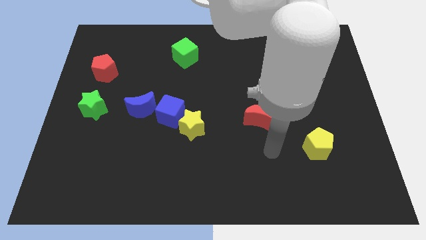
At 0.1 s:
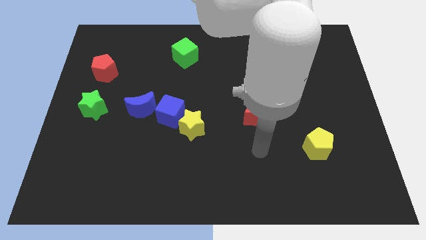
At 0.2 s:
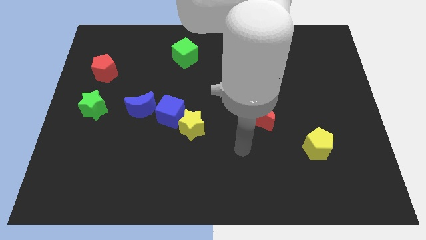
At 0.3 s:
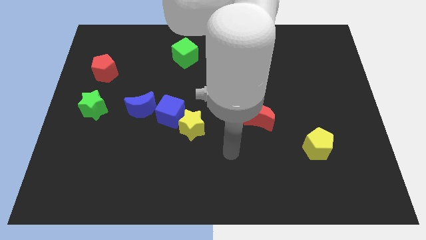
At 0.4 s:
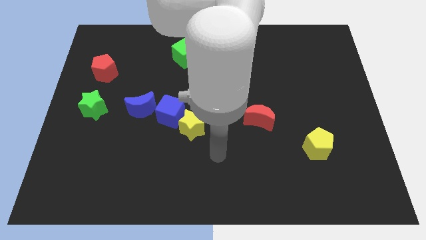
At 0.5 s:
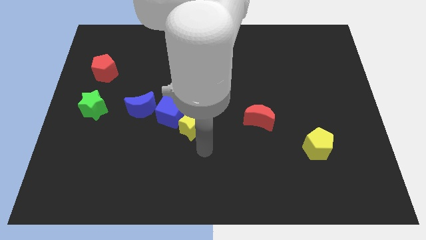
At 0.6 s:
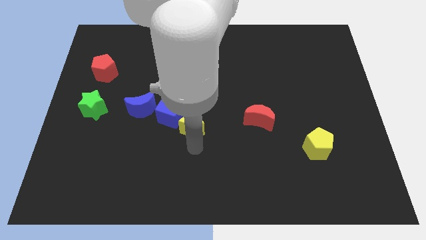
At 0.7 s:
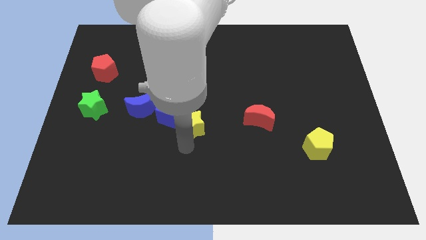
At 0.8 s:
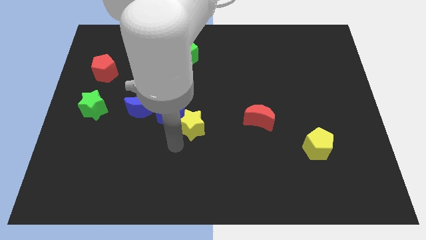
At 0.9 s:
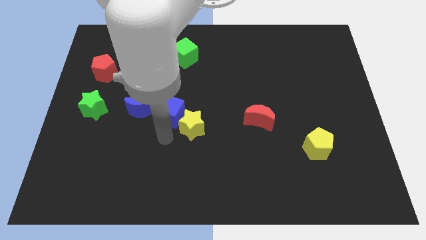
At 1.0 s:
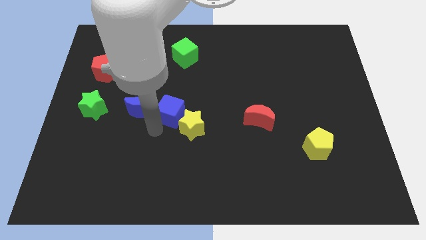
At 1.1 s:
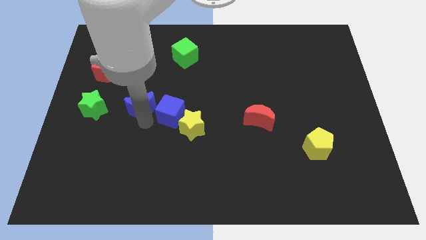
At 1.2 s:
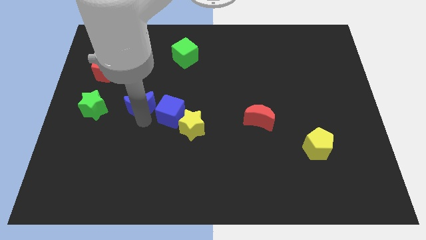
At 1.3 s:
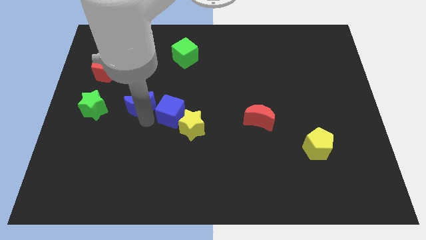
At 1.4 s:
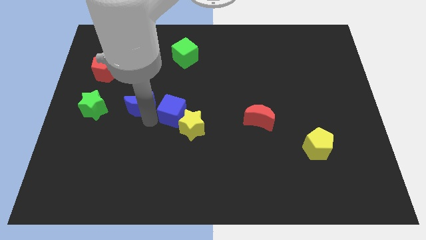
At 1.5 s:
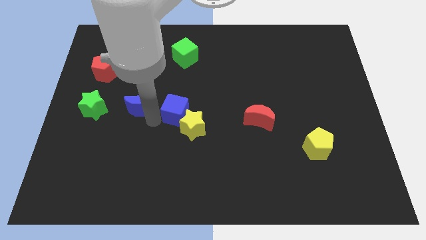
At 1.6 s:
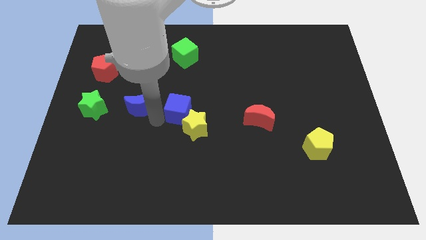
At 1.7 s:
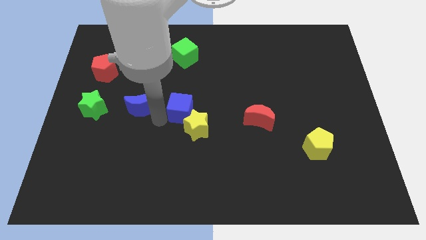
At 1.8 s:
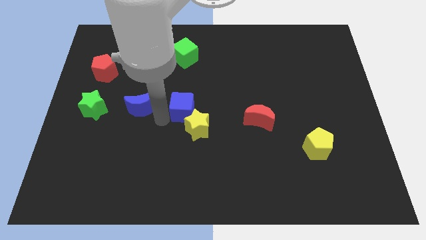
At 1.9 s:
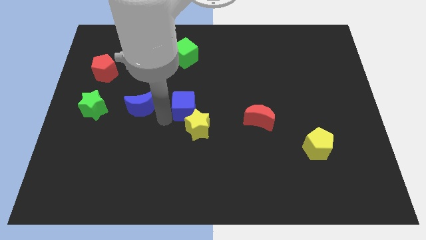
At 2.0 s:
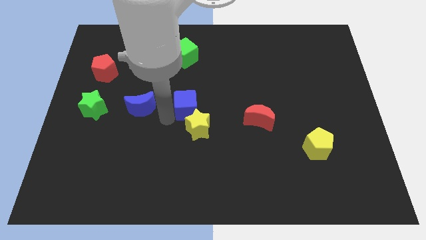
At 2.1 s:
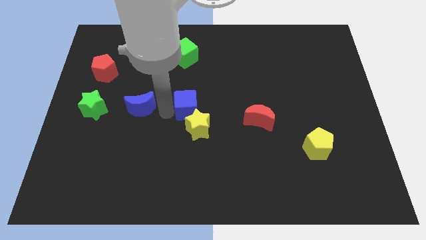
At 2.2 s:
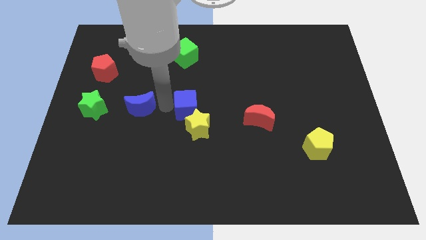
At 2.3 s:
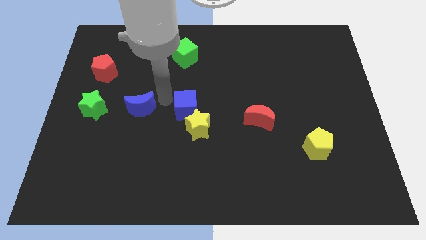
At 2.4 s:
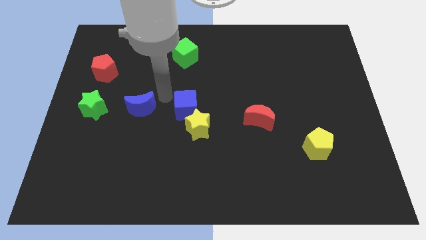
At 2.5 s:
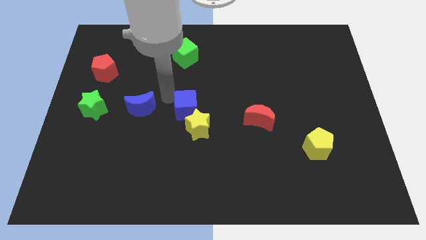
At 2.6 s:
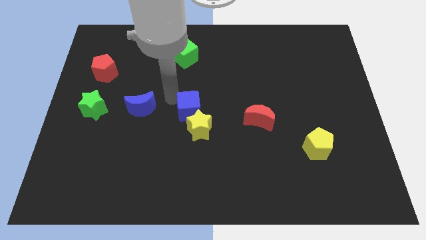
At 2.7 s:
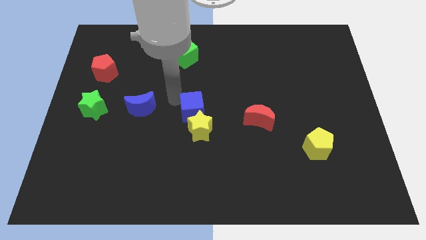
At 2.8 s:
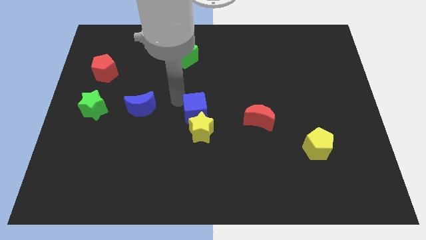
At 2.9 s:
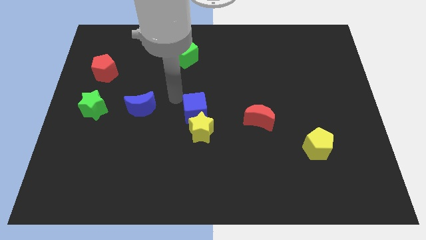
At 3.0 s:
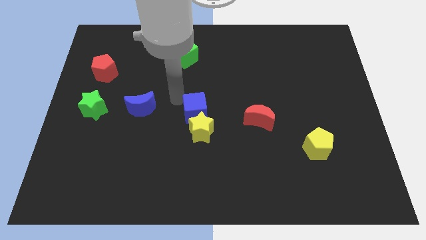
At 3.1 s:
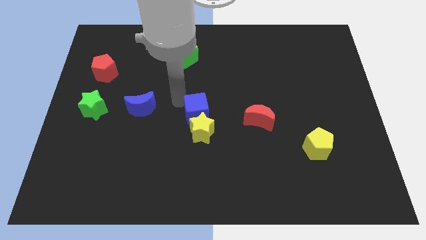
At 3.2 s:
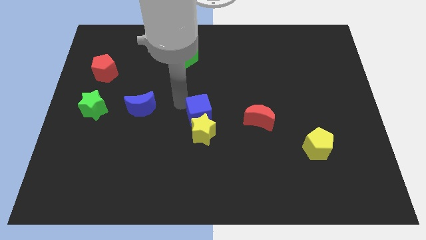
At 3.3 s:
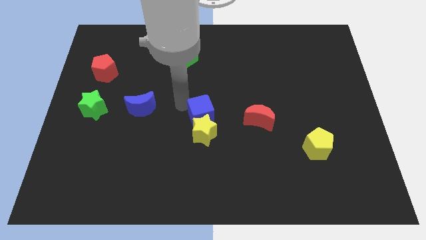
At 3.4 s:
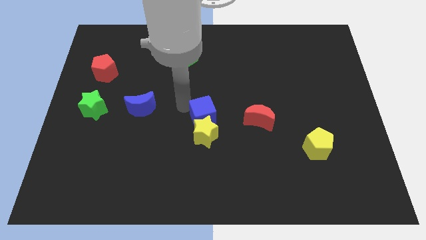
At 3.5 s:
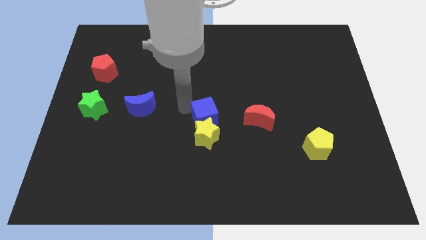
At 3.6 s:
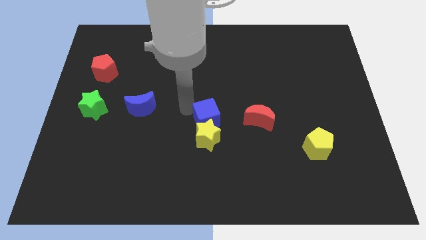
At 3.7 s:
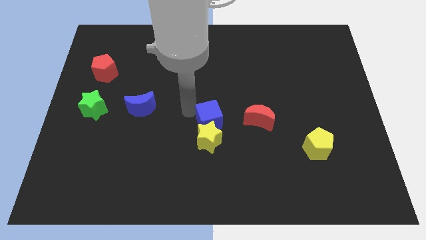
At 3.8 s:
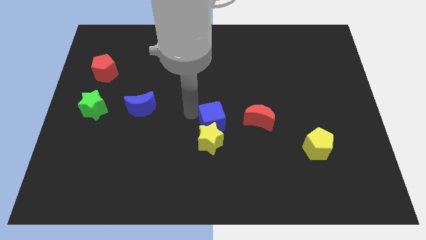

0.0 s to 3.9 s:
slightly slide the blue cube downwards and then to the right

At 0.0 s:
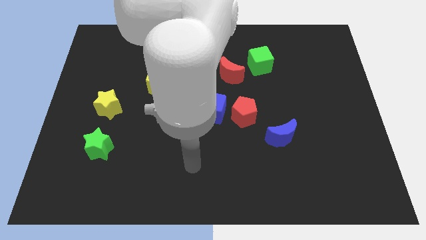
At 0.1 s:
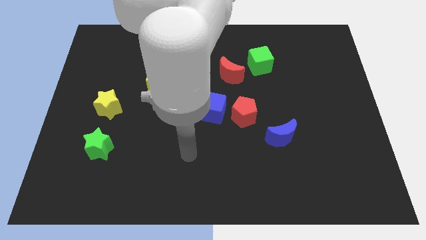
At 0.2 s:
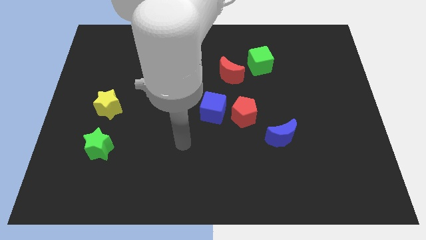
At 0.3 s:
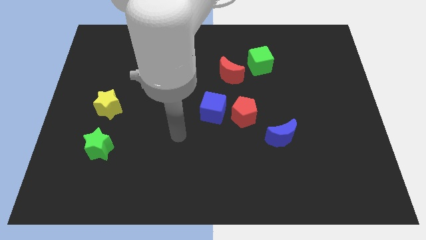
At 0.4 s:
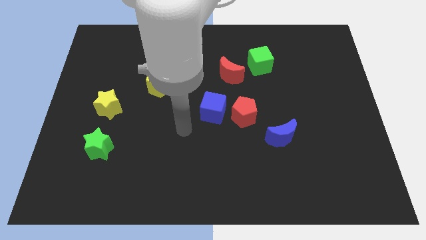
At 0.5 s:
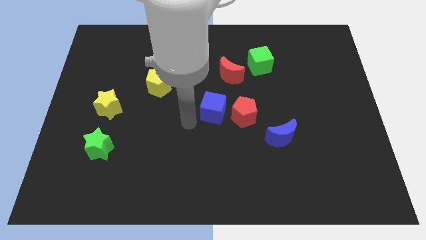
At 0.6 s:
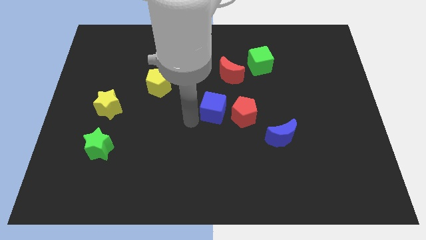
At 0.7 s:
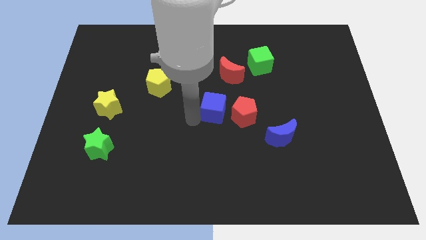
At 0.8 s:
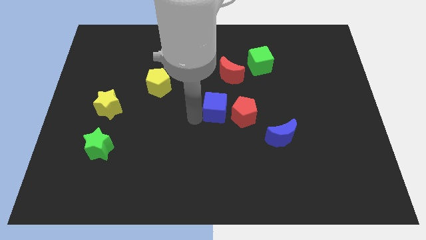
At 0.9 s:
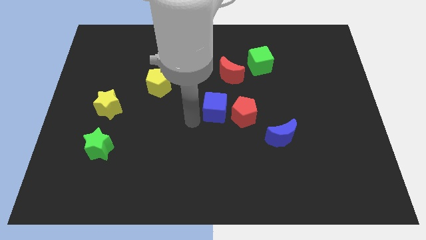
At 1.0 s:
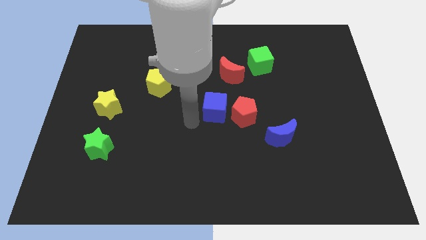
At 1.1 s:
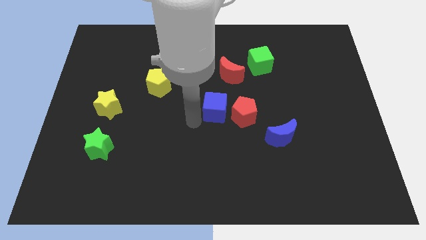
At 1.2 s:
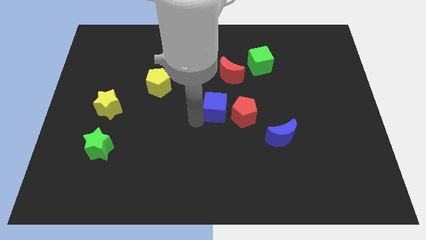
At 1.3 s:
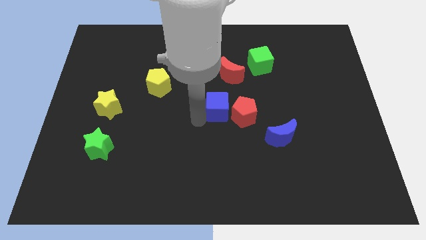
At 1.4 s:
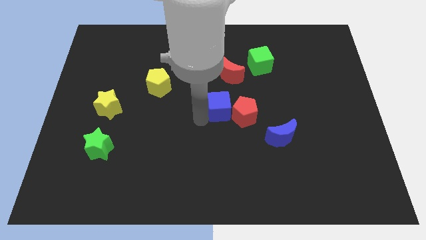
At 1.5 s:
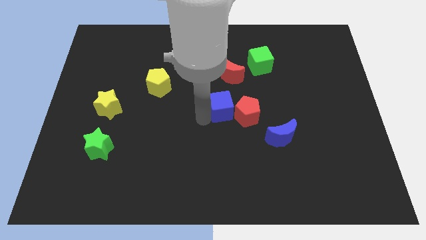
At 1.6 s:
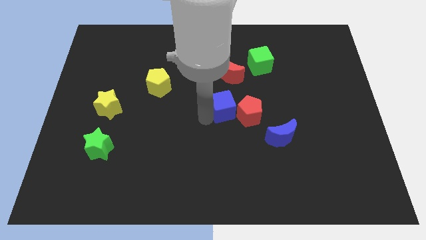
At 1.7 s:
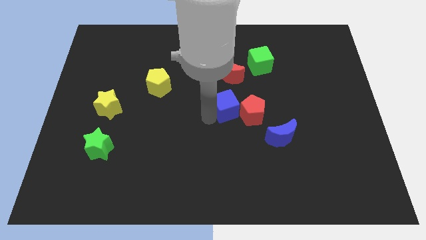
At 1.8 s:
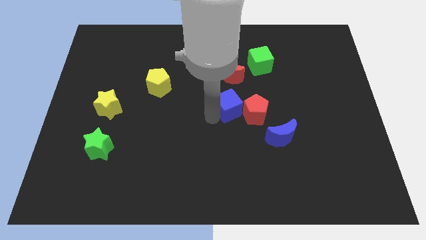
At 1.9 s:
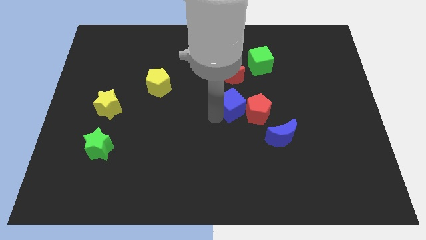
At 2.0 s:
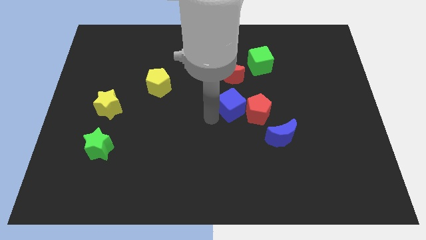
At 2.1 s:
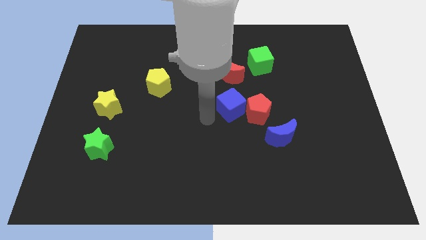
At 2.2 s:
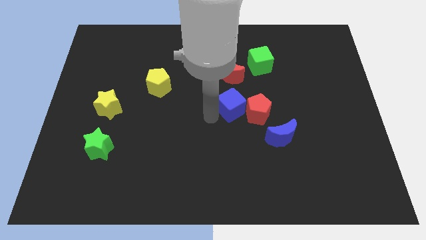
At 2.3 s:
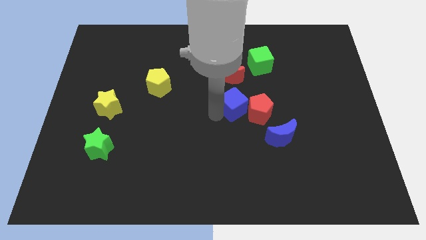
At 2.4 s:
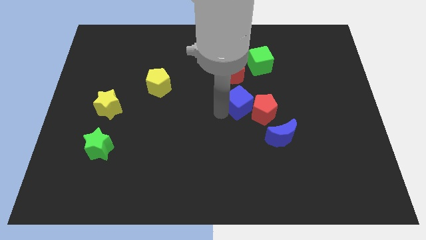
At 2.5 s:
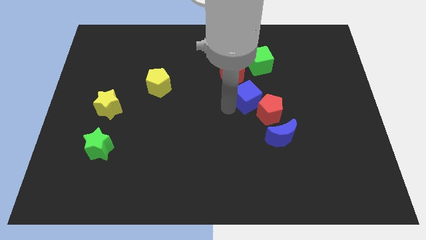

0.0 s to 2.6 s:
push the blue cube to the right a little bit

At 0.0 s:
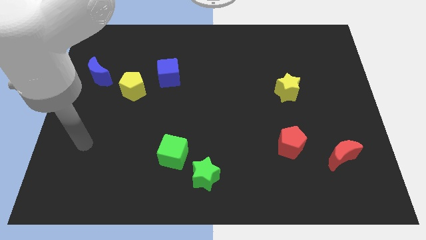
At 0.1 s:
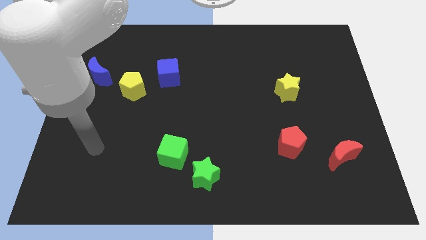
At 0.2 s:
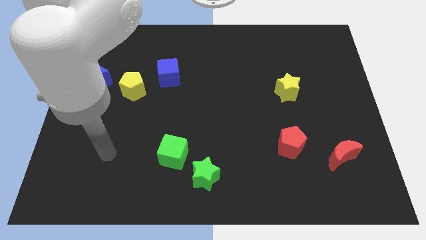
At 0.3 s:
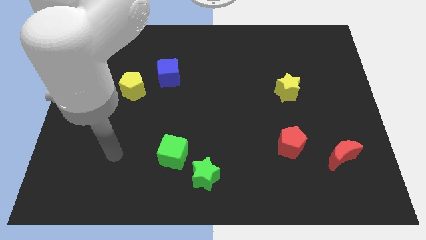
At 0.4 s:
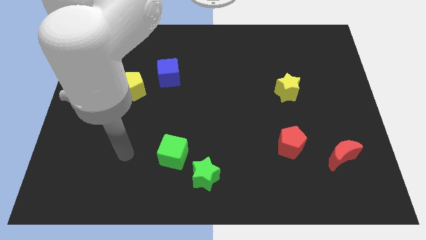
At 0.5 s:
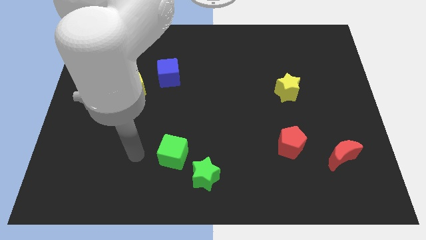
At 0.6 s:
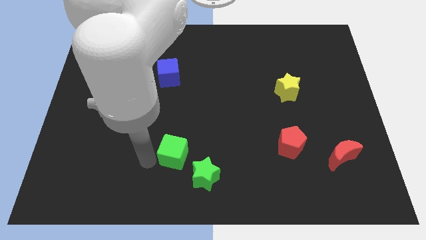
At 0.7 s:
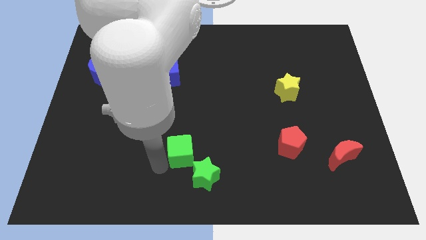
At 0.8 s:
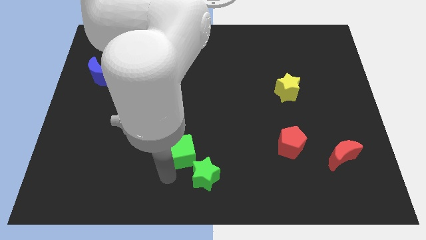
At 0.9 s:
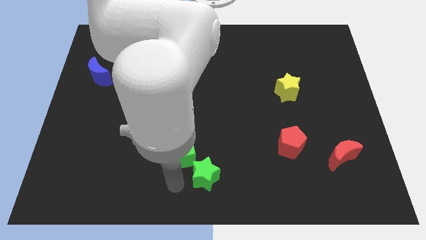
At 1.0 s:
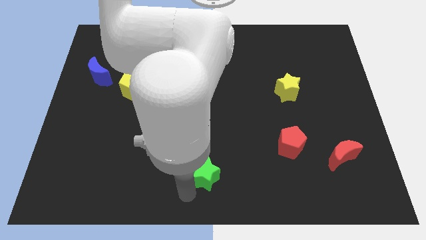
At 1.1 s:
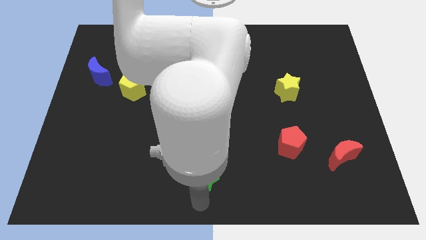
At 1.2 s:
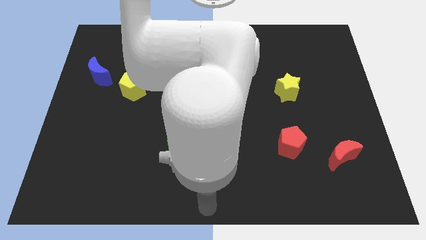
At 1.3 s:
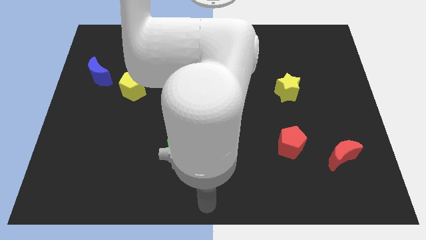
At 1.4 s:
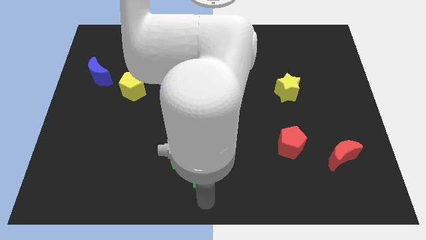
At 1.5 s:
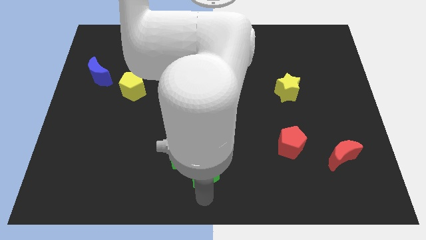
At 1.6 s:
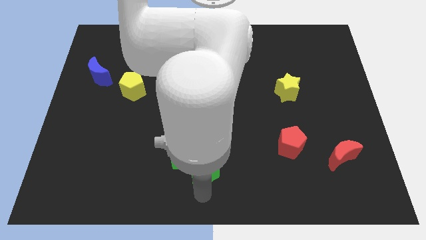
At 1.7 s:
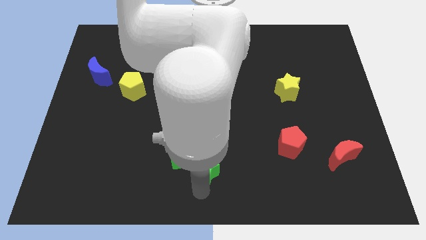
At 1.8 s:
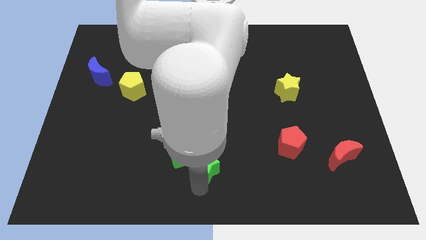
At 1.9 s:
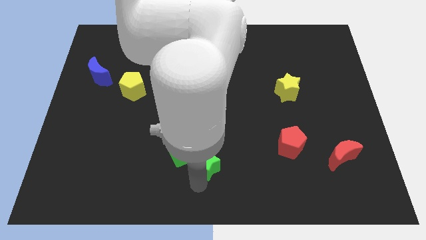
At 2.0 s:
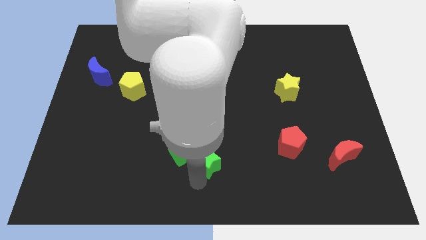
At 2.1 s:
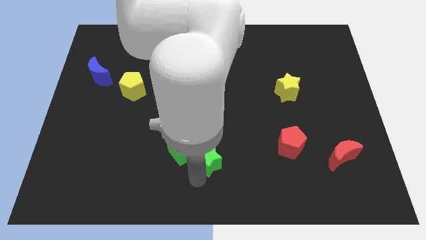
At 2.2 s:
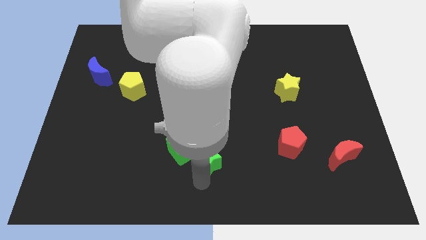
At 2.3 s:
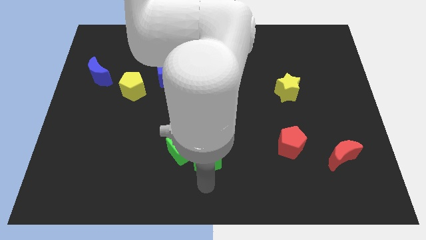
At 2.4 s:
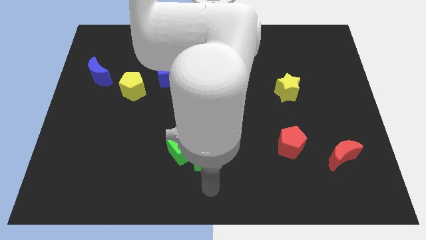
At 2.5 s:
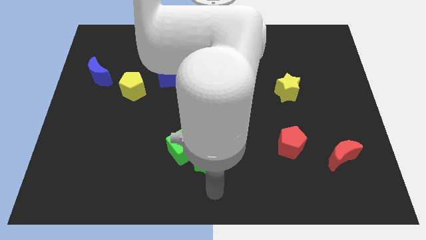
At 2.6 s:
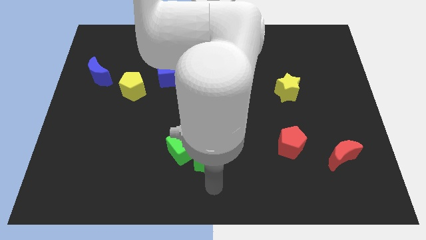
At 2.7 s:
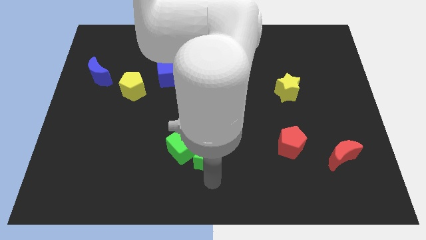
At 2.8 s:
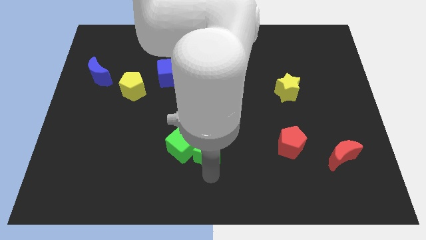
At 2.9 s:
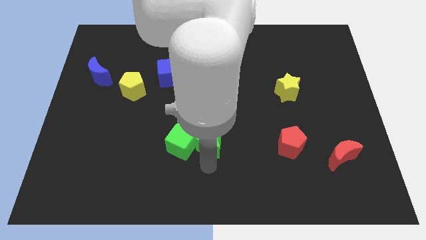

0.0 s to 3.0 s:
push the green star somewhat upwards
